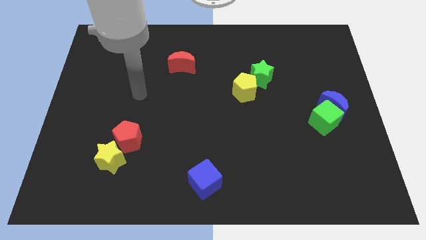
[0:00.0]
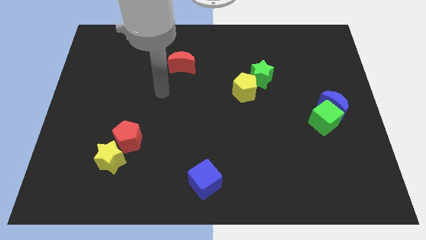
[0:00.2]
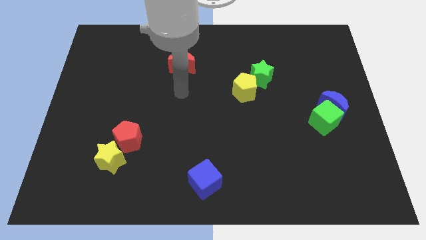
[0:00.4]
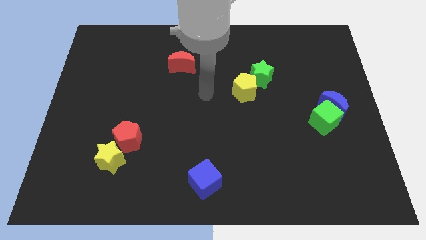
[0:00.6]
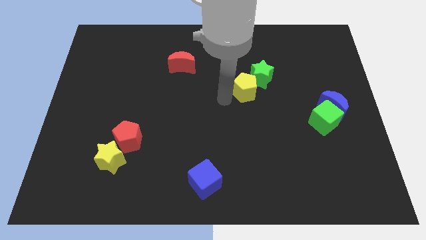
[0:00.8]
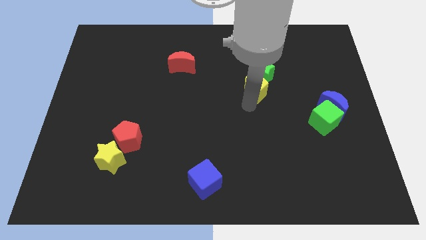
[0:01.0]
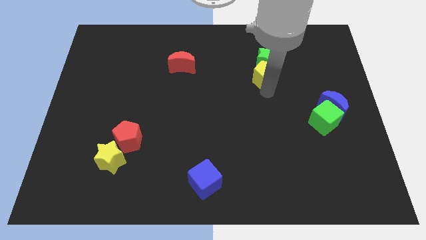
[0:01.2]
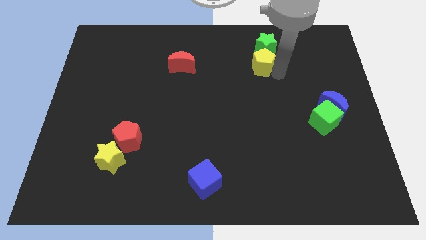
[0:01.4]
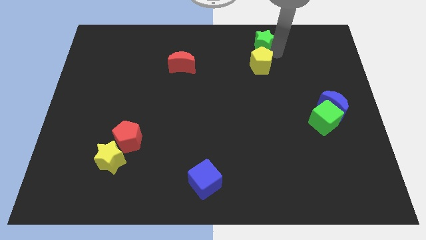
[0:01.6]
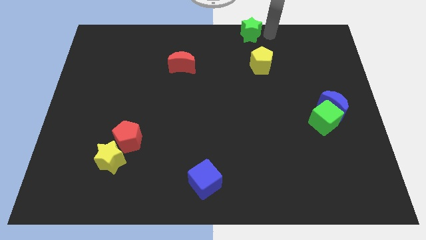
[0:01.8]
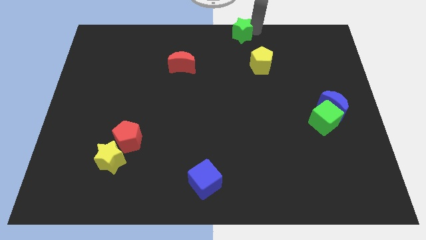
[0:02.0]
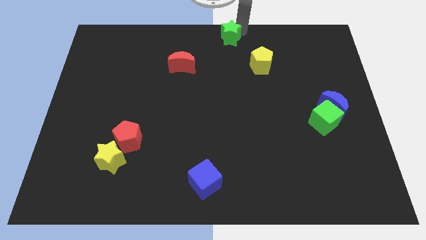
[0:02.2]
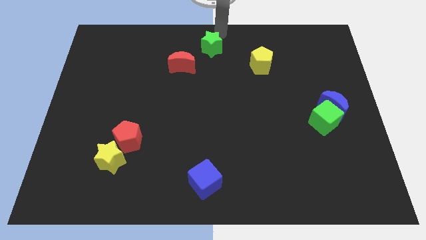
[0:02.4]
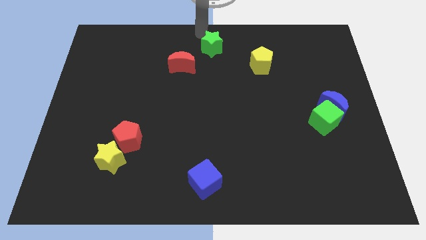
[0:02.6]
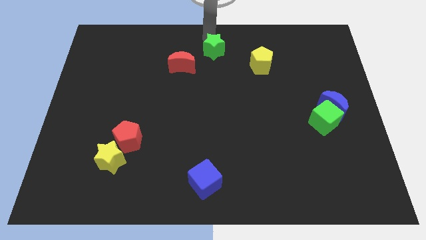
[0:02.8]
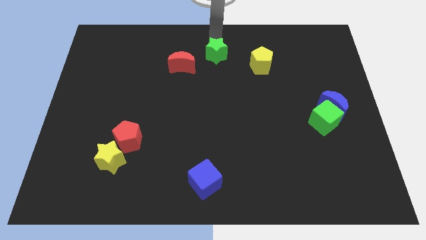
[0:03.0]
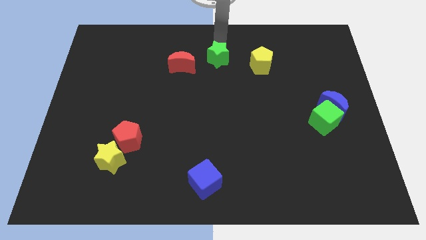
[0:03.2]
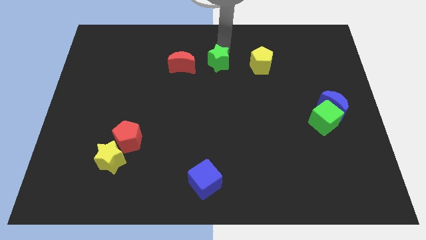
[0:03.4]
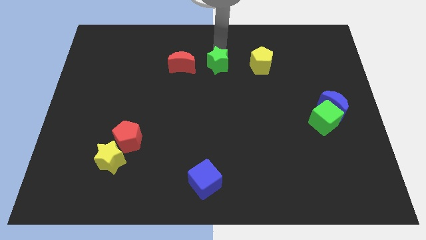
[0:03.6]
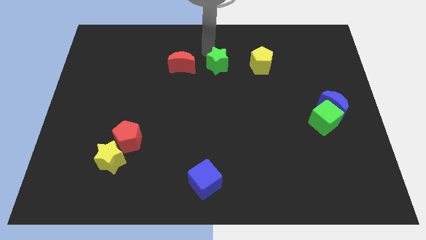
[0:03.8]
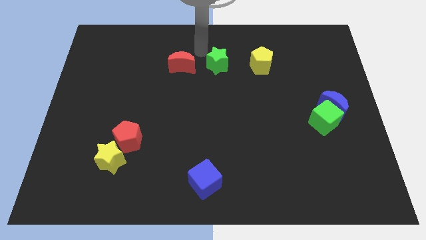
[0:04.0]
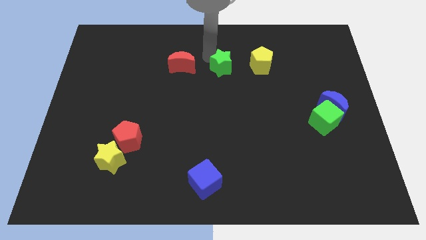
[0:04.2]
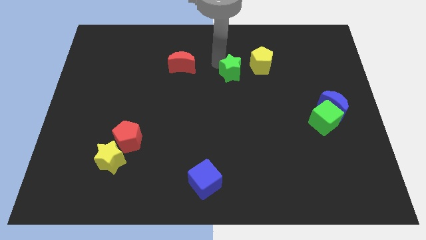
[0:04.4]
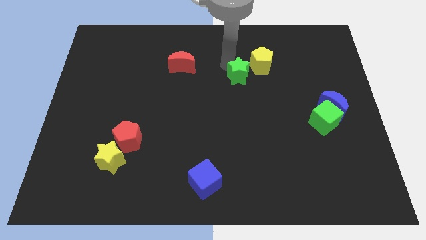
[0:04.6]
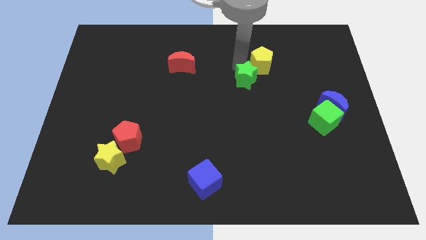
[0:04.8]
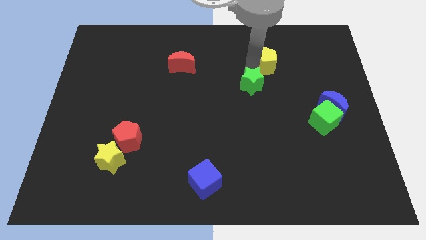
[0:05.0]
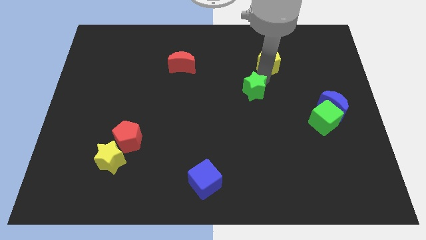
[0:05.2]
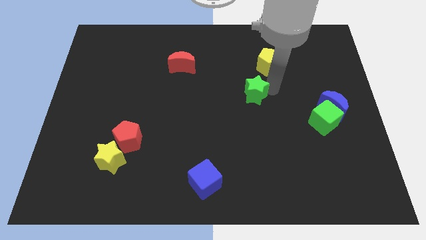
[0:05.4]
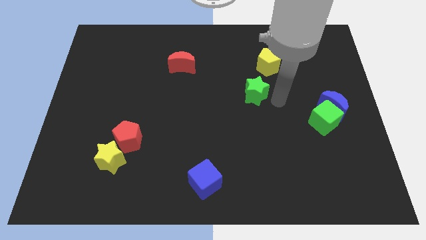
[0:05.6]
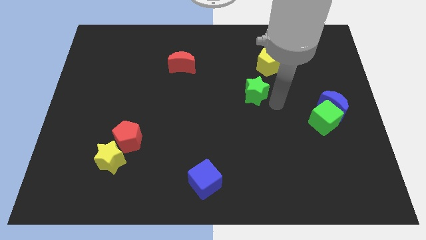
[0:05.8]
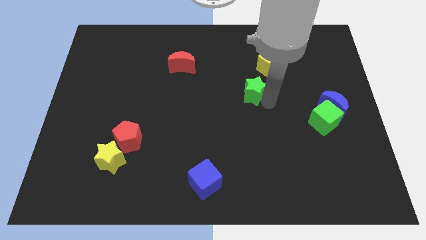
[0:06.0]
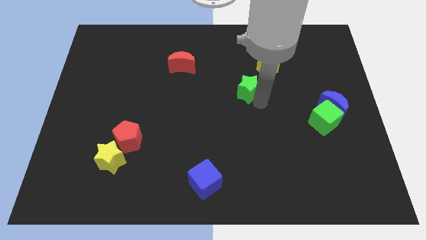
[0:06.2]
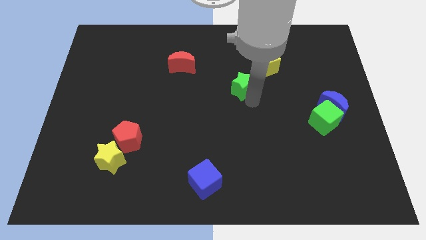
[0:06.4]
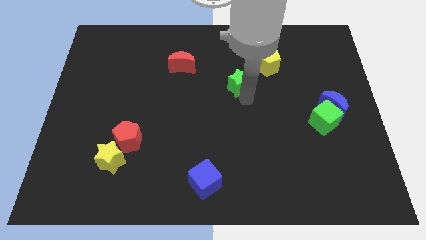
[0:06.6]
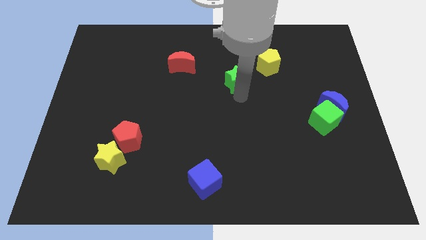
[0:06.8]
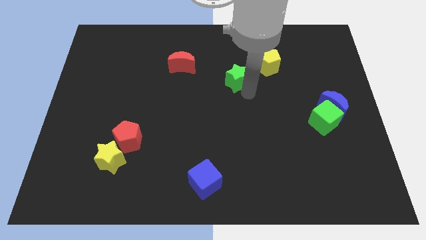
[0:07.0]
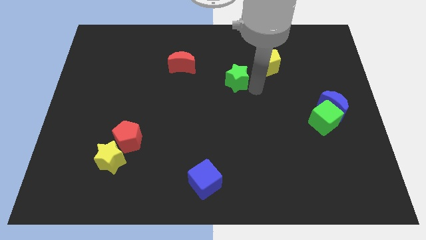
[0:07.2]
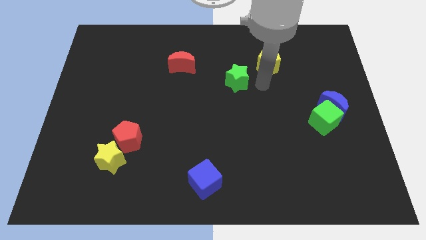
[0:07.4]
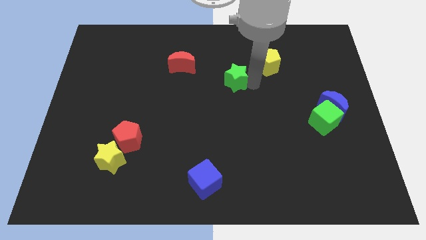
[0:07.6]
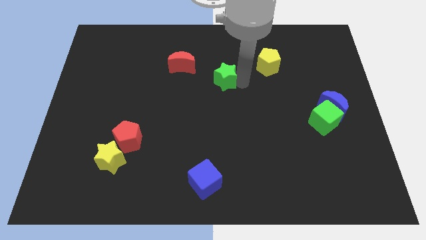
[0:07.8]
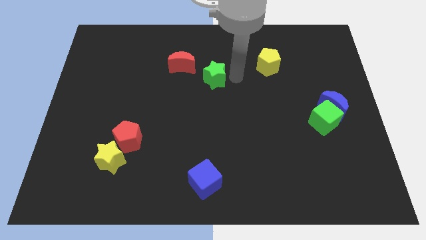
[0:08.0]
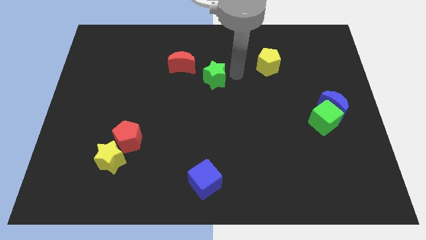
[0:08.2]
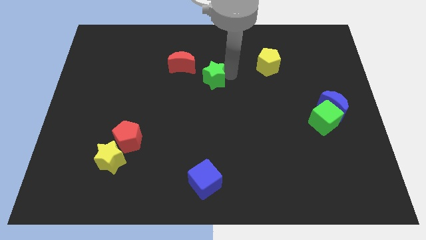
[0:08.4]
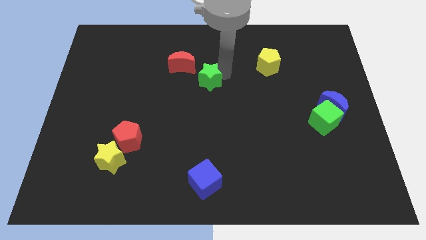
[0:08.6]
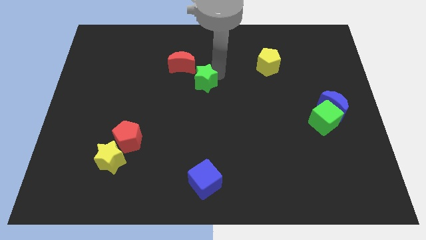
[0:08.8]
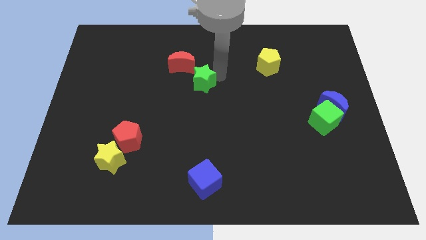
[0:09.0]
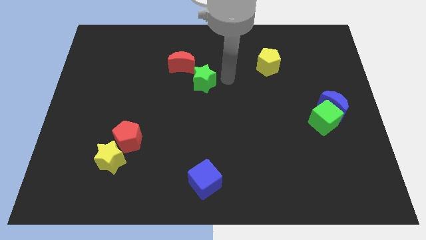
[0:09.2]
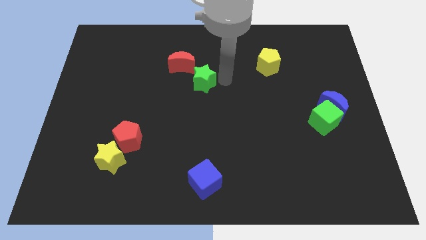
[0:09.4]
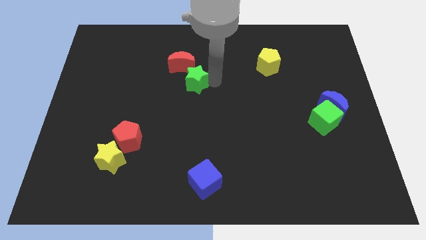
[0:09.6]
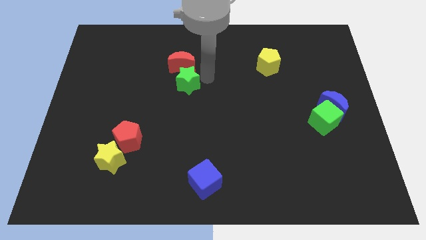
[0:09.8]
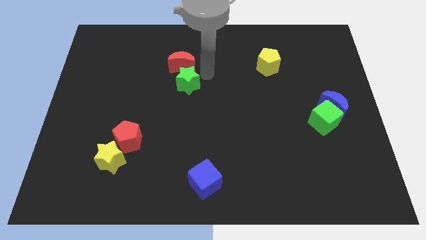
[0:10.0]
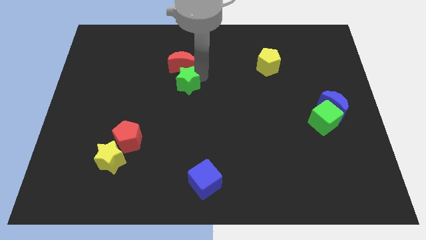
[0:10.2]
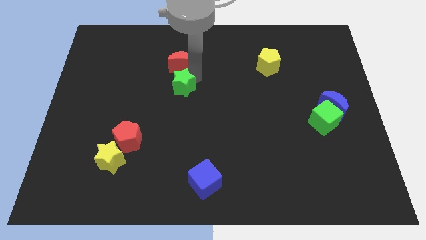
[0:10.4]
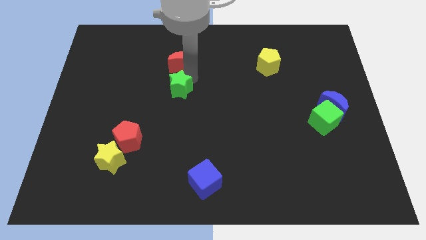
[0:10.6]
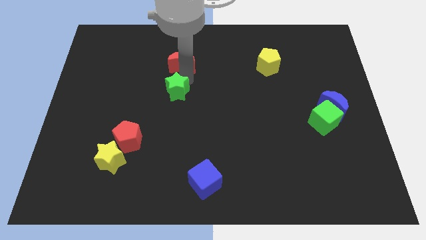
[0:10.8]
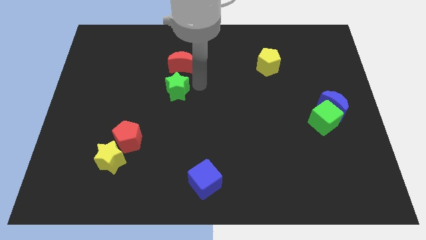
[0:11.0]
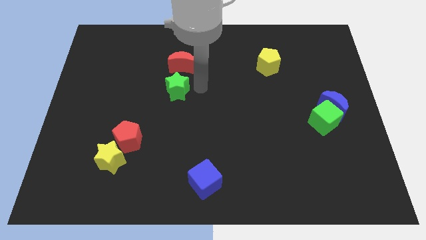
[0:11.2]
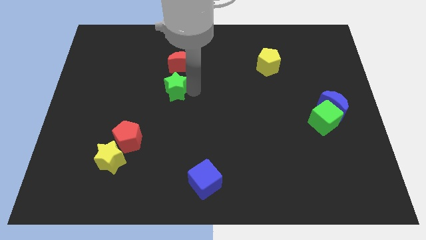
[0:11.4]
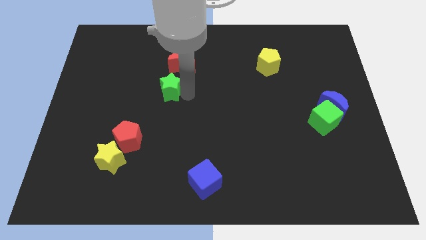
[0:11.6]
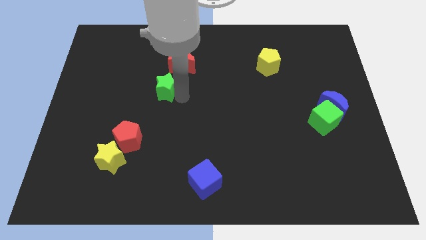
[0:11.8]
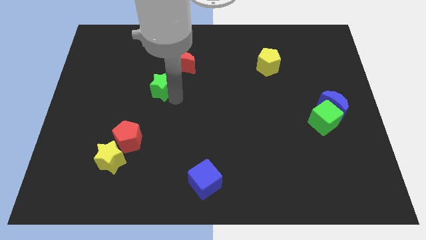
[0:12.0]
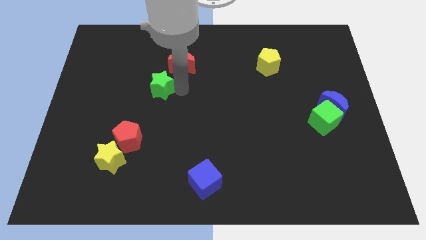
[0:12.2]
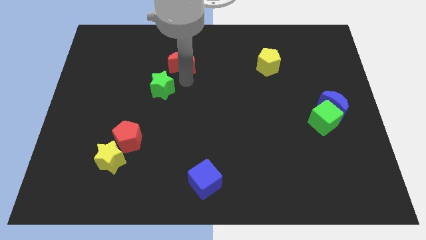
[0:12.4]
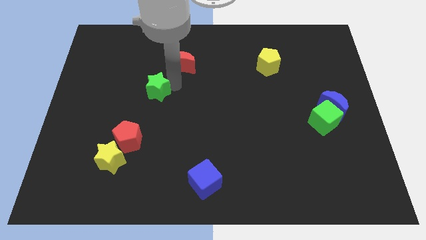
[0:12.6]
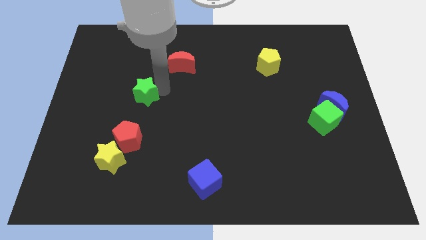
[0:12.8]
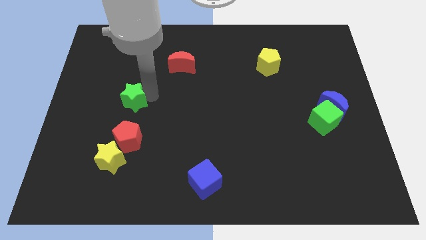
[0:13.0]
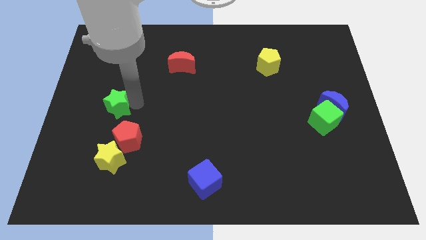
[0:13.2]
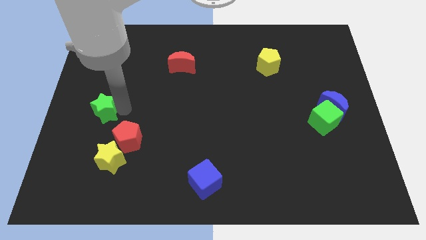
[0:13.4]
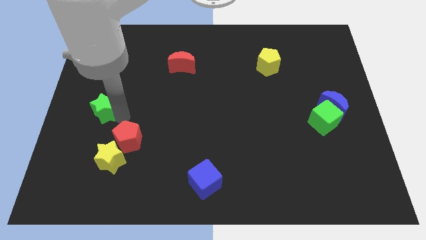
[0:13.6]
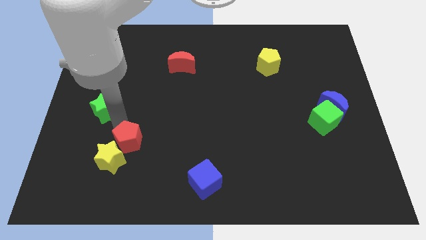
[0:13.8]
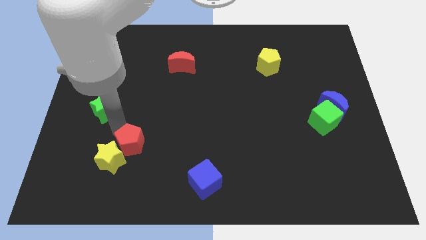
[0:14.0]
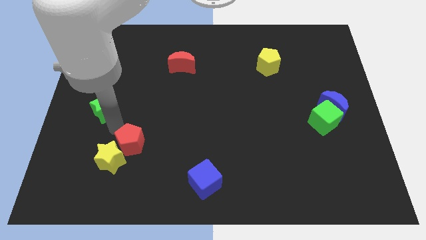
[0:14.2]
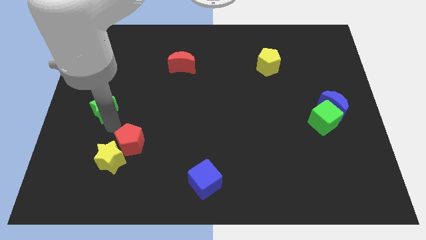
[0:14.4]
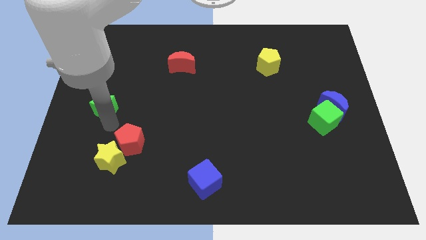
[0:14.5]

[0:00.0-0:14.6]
slide the green star to the left side of the board
